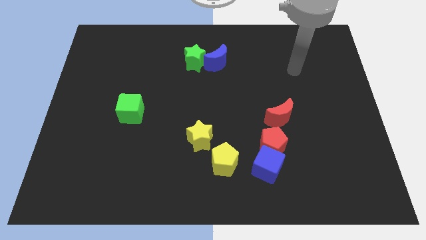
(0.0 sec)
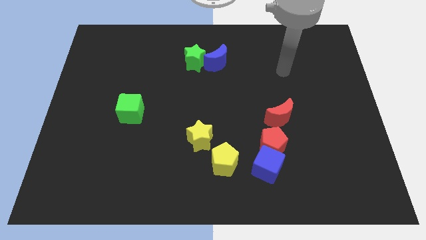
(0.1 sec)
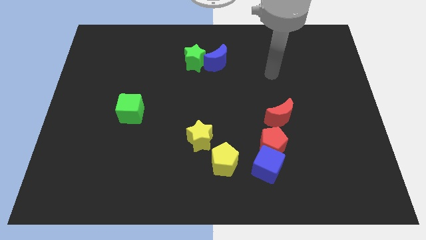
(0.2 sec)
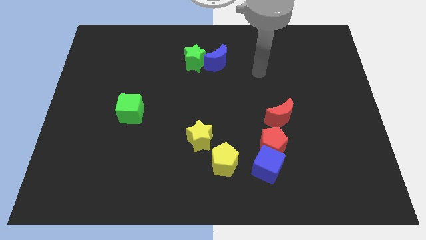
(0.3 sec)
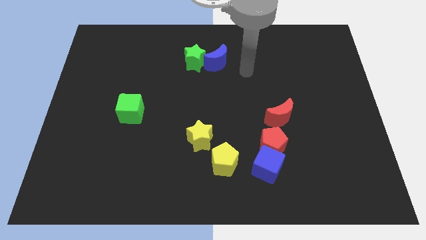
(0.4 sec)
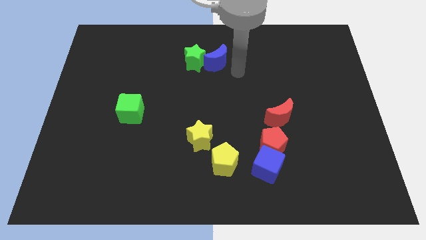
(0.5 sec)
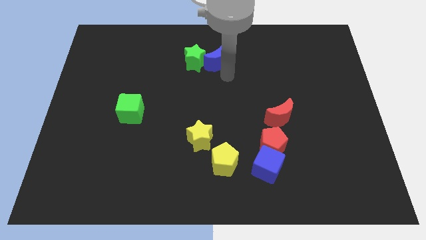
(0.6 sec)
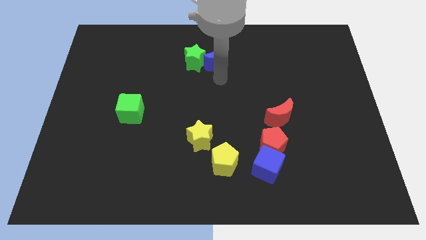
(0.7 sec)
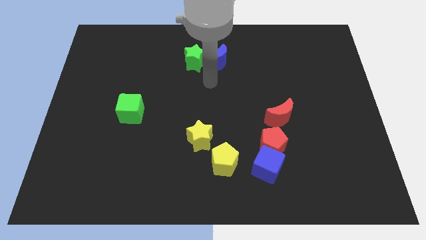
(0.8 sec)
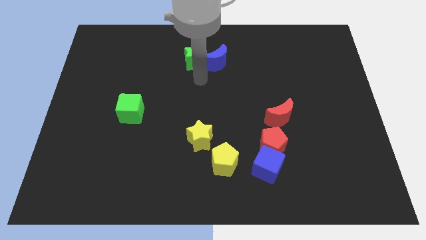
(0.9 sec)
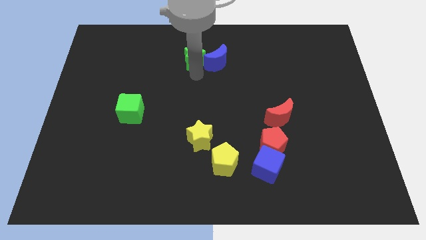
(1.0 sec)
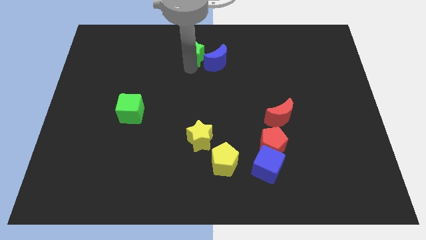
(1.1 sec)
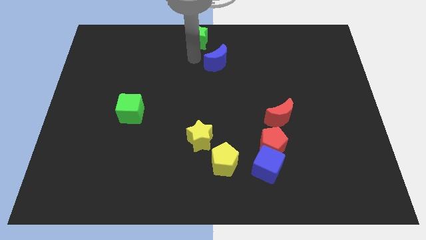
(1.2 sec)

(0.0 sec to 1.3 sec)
separate the blue moon from the green star

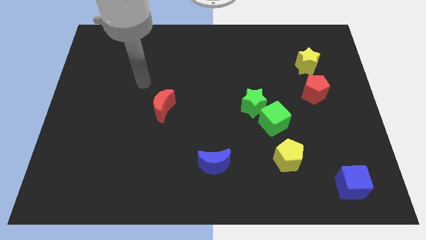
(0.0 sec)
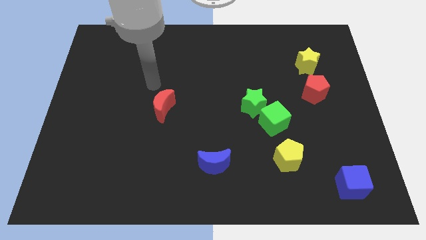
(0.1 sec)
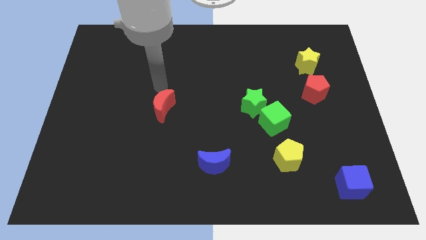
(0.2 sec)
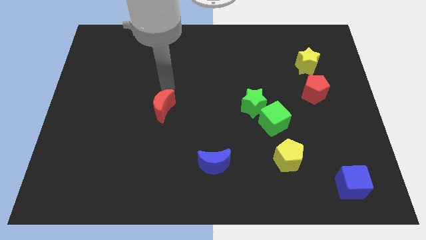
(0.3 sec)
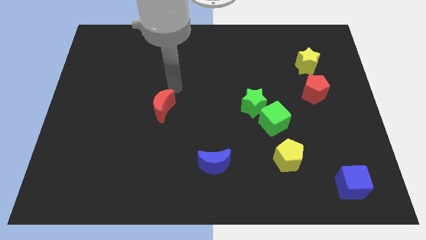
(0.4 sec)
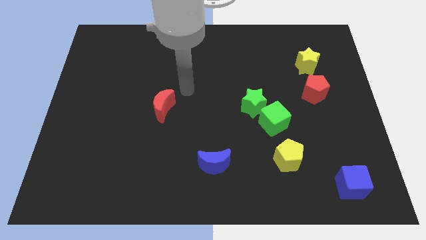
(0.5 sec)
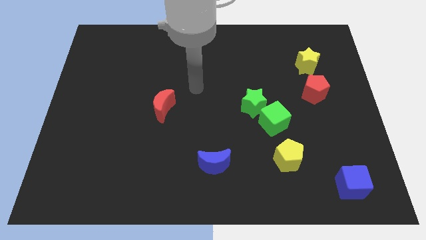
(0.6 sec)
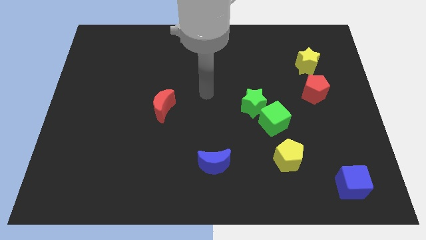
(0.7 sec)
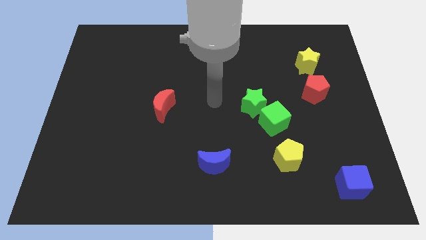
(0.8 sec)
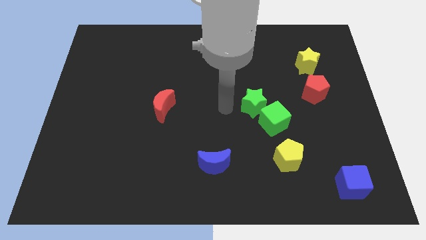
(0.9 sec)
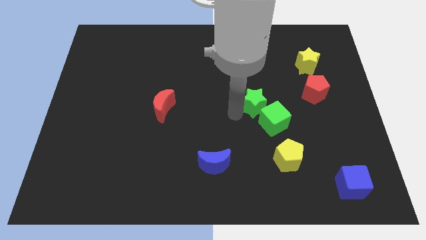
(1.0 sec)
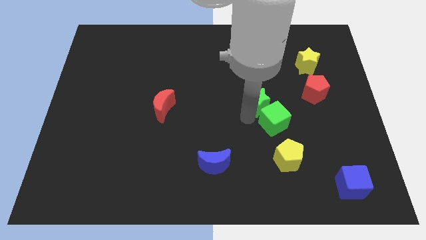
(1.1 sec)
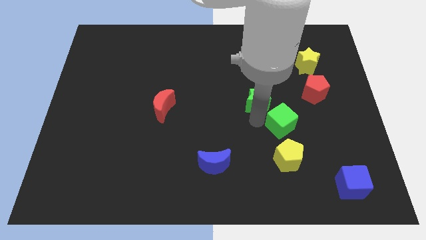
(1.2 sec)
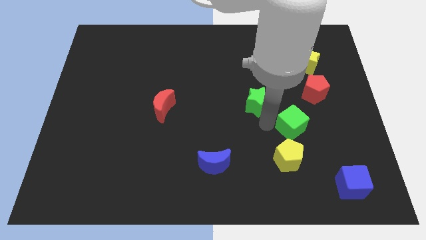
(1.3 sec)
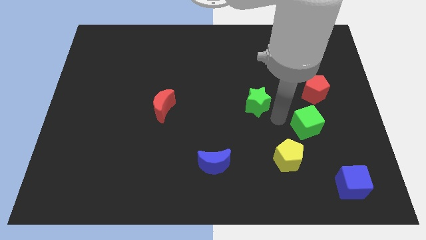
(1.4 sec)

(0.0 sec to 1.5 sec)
pull the green star apart from the green cube

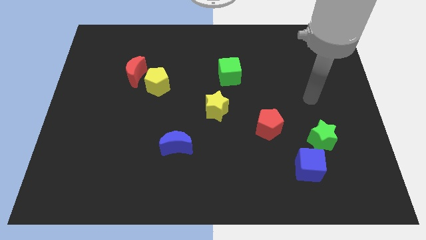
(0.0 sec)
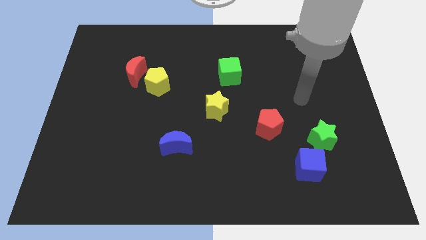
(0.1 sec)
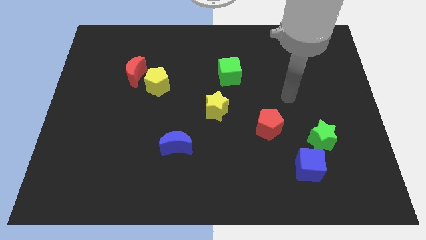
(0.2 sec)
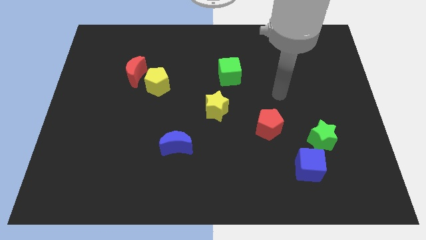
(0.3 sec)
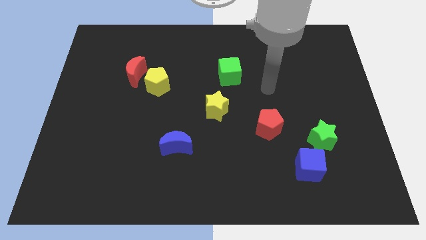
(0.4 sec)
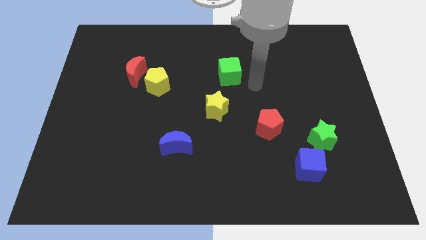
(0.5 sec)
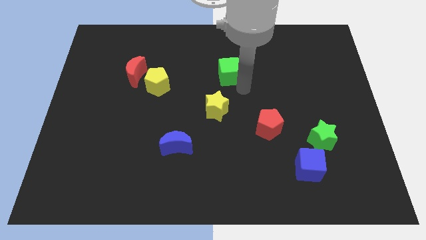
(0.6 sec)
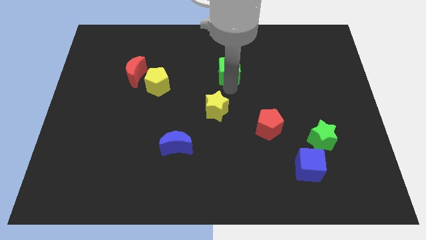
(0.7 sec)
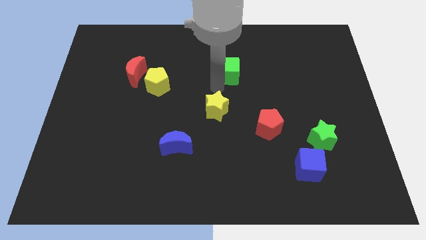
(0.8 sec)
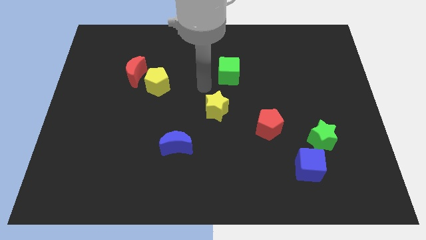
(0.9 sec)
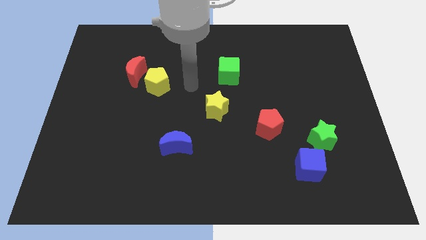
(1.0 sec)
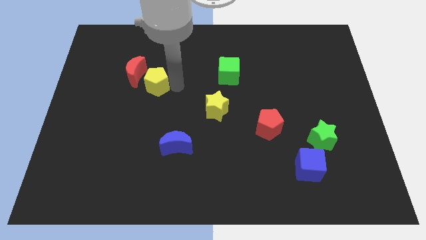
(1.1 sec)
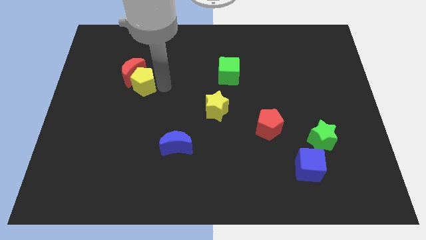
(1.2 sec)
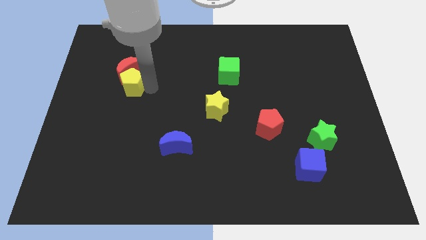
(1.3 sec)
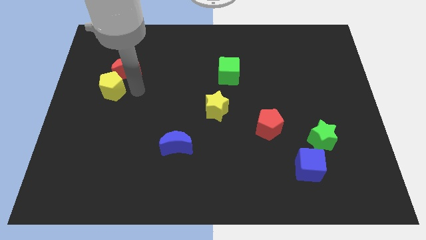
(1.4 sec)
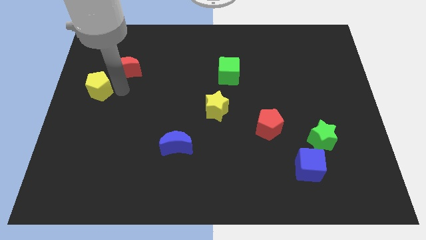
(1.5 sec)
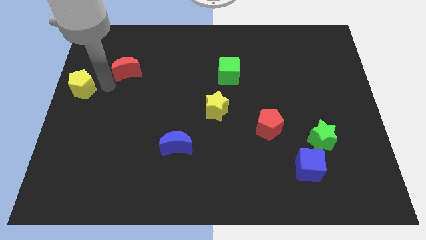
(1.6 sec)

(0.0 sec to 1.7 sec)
move the red moon away from the yellow pentagon

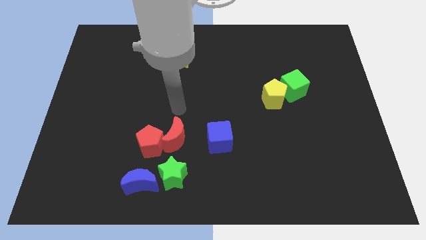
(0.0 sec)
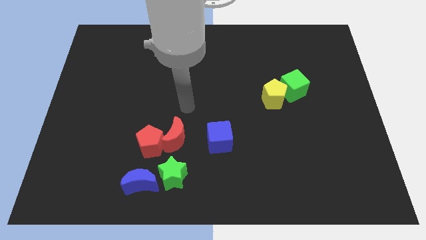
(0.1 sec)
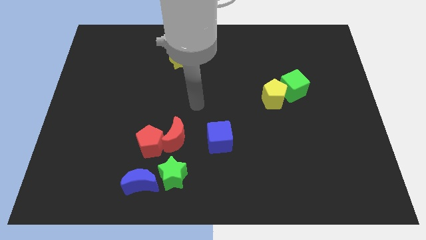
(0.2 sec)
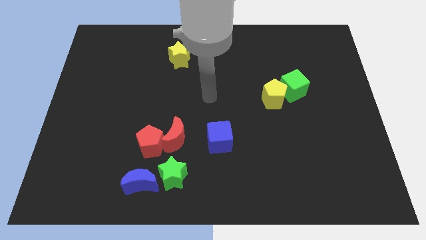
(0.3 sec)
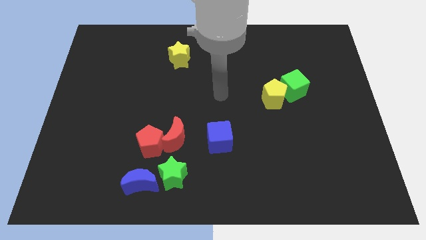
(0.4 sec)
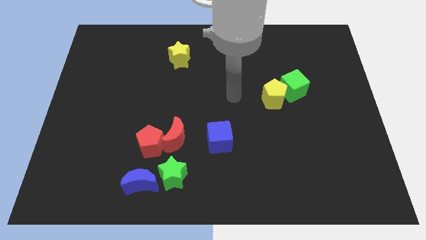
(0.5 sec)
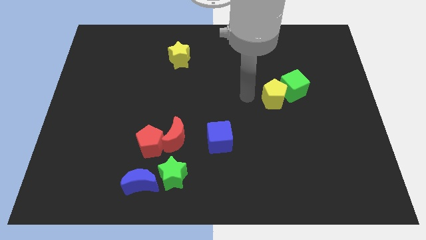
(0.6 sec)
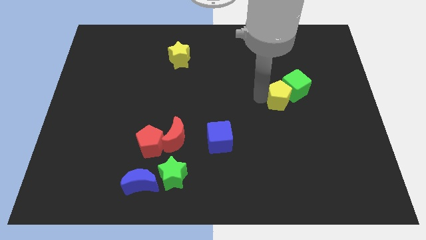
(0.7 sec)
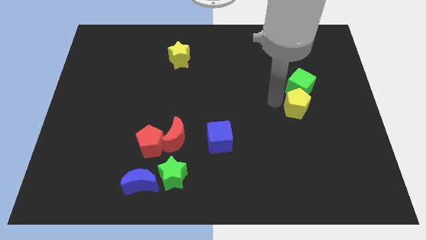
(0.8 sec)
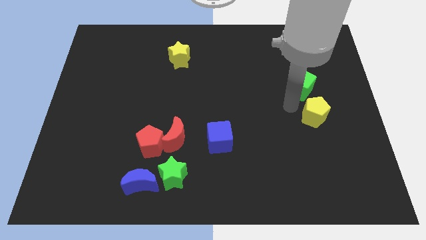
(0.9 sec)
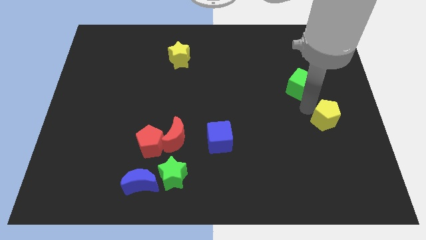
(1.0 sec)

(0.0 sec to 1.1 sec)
separate the green cube from the yellow pentagon

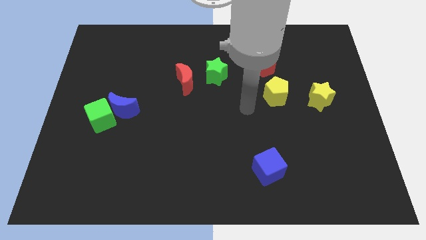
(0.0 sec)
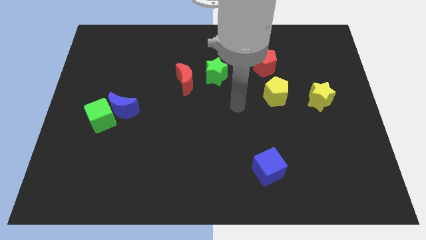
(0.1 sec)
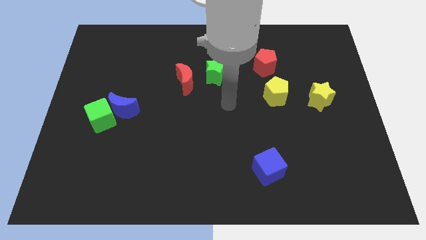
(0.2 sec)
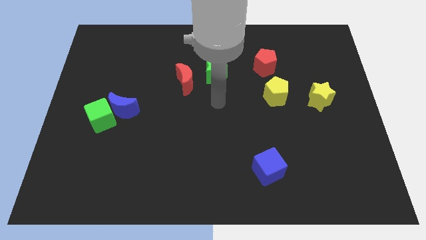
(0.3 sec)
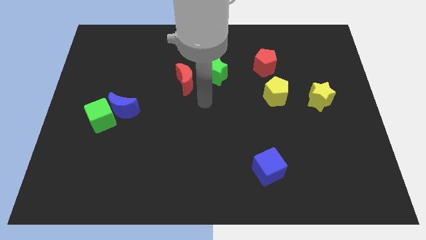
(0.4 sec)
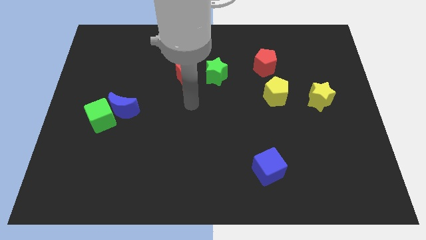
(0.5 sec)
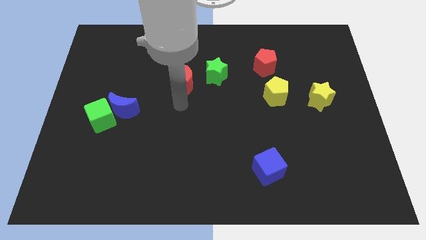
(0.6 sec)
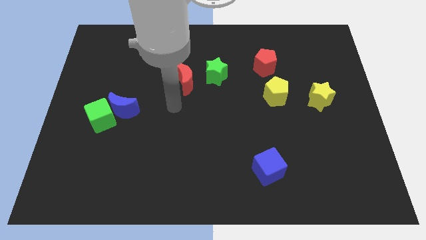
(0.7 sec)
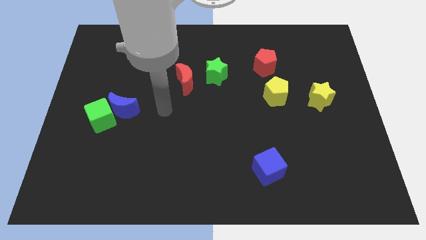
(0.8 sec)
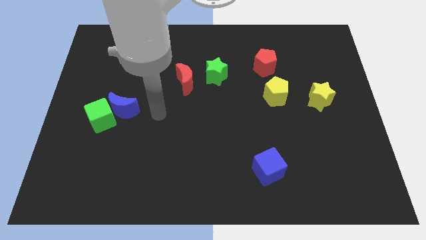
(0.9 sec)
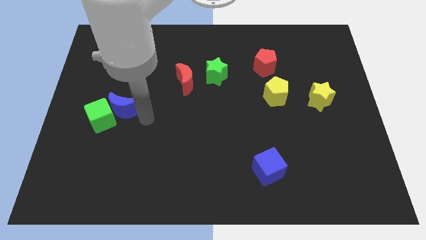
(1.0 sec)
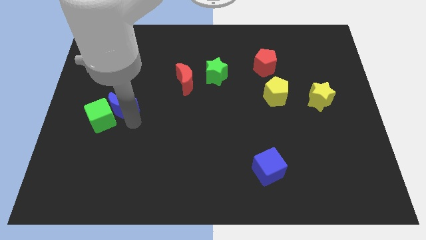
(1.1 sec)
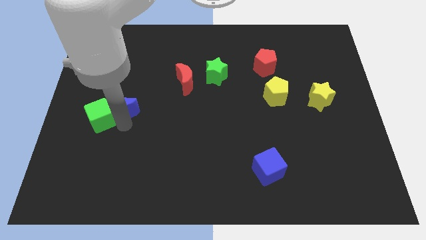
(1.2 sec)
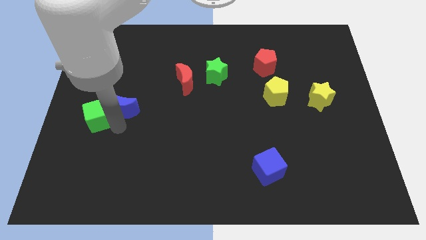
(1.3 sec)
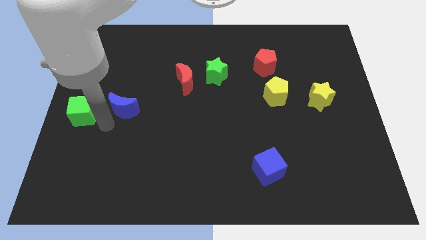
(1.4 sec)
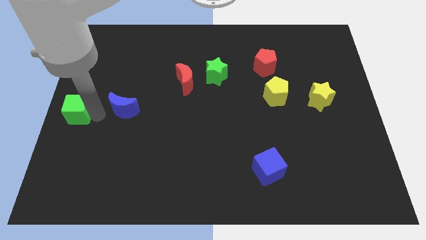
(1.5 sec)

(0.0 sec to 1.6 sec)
pull the blue moon apart from the green cube

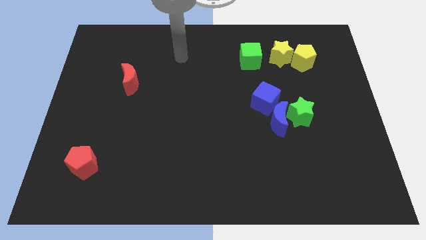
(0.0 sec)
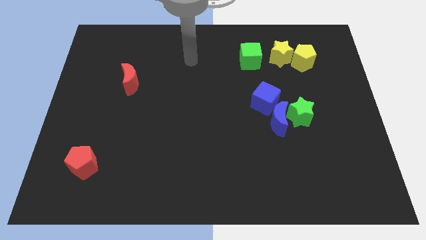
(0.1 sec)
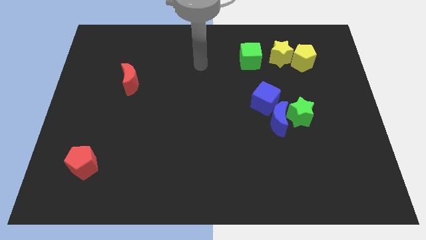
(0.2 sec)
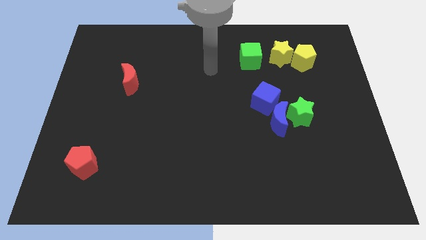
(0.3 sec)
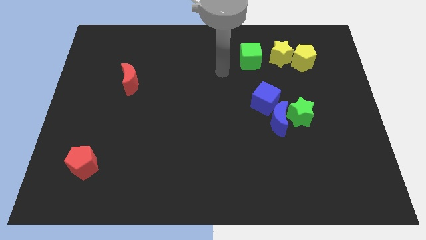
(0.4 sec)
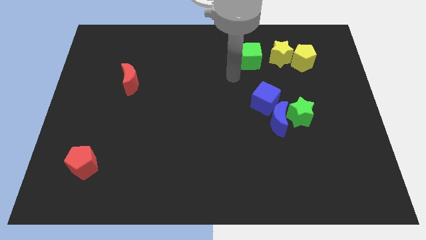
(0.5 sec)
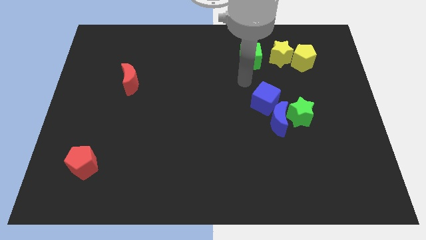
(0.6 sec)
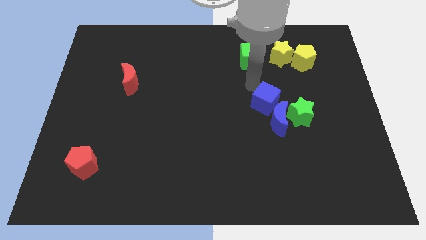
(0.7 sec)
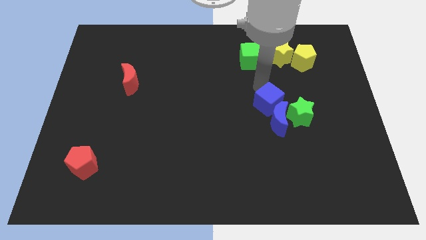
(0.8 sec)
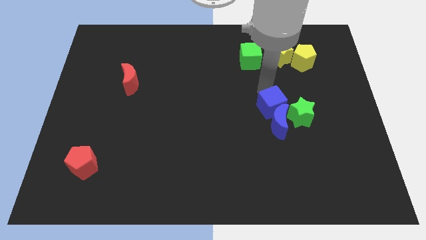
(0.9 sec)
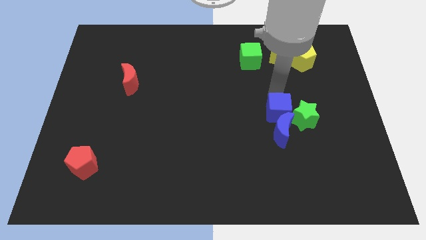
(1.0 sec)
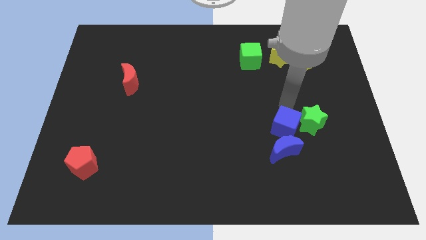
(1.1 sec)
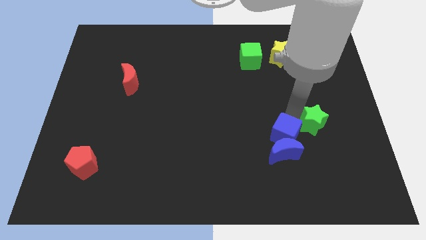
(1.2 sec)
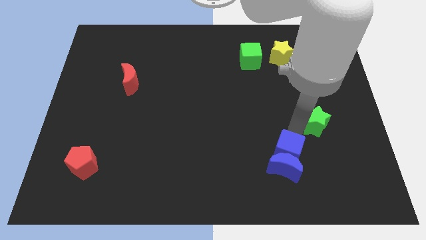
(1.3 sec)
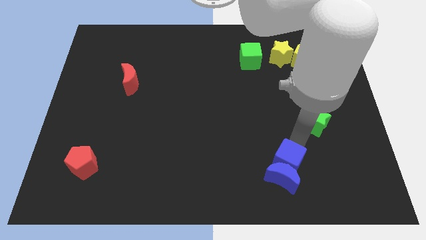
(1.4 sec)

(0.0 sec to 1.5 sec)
pull the blue moon apart from the green star and blue cube

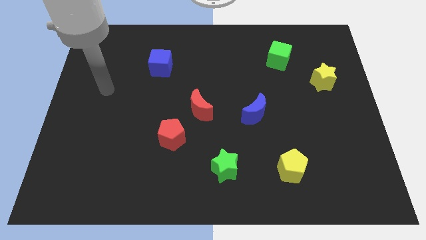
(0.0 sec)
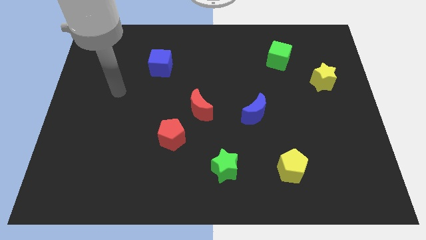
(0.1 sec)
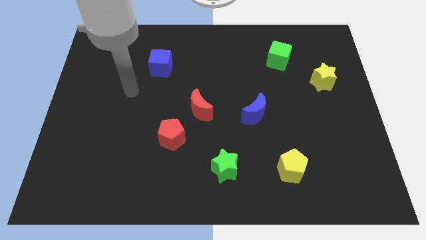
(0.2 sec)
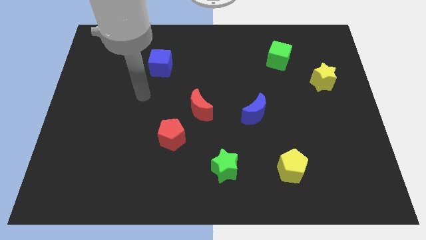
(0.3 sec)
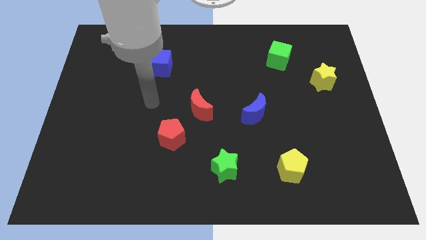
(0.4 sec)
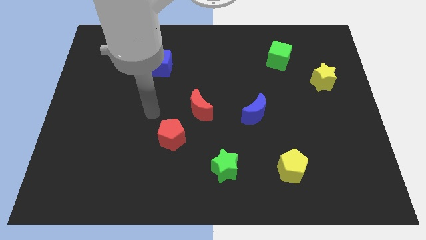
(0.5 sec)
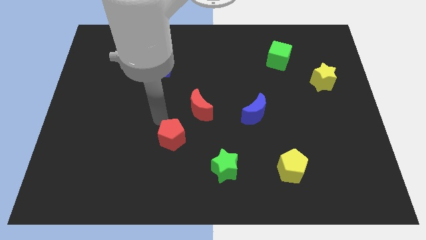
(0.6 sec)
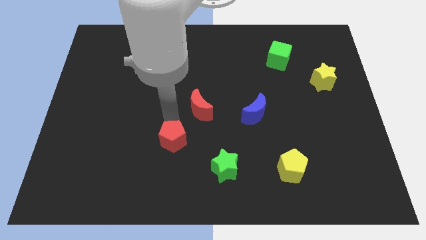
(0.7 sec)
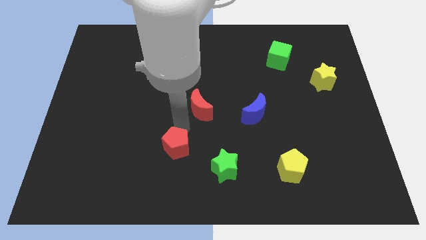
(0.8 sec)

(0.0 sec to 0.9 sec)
separate the red moon from the red pentagon
